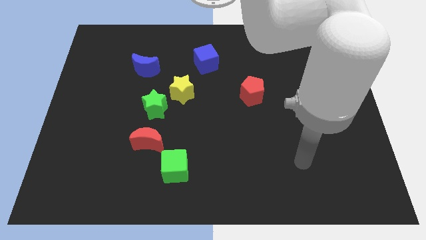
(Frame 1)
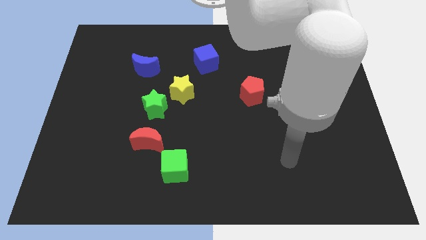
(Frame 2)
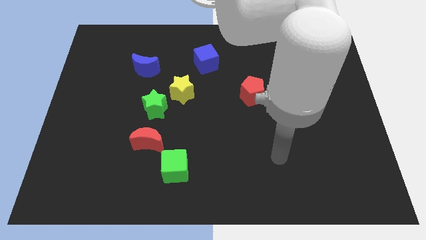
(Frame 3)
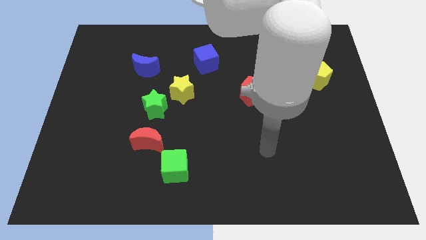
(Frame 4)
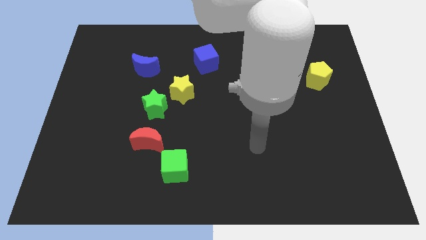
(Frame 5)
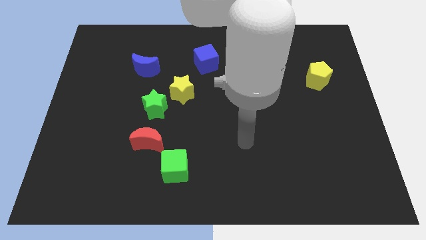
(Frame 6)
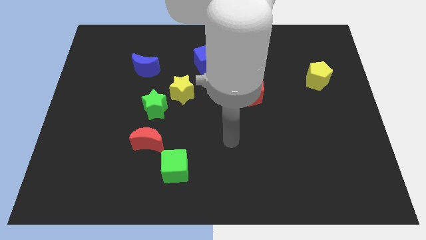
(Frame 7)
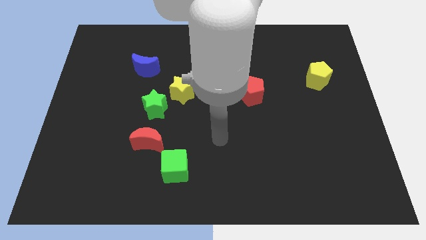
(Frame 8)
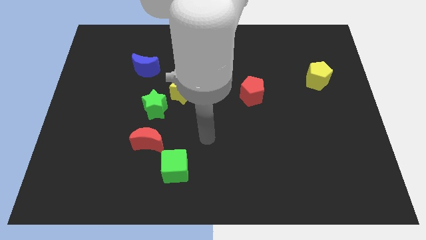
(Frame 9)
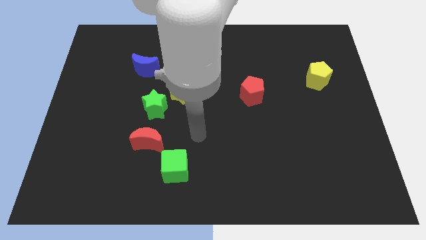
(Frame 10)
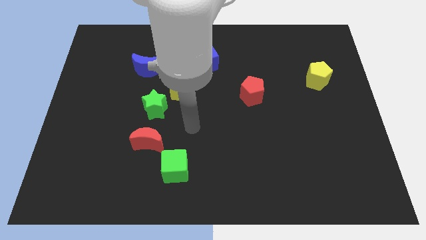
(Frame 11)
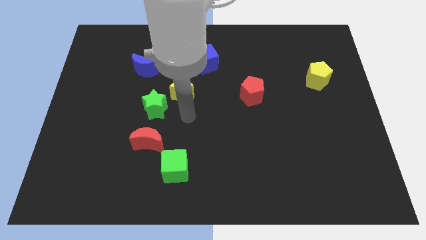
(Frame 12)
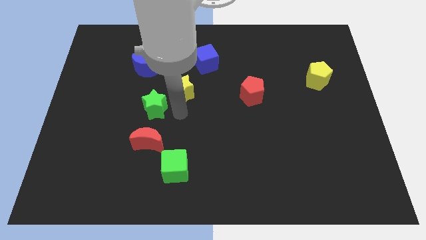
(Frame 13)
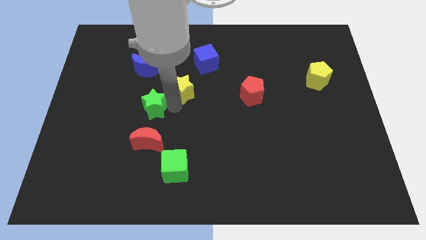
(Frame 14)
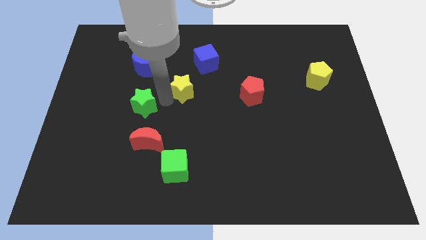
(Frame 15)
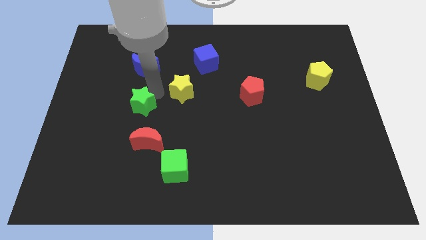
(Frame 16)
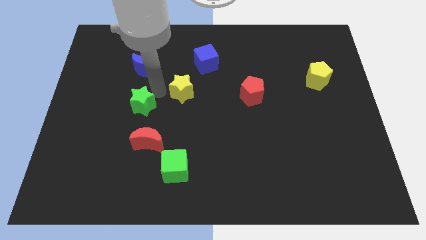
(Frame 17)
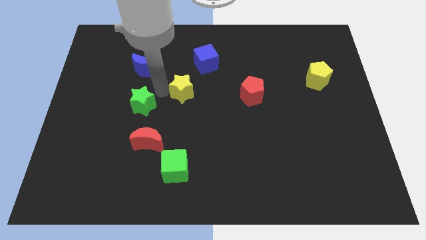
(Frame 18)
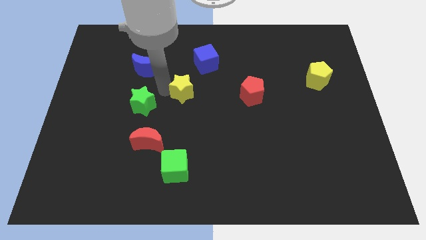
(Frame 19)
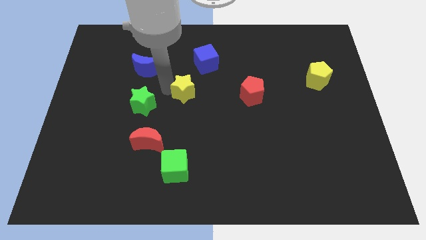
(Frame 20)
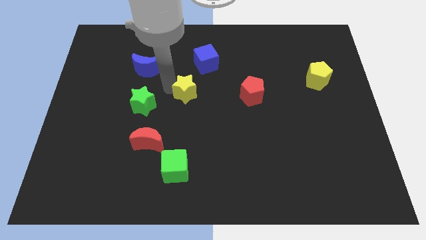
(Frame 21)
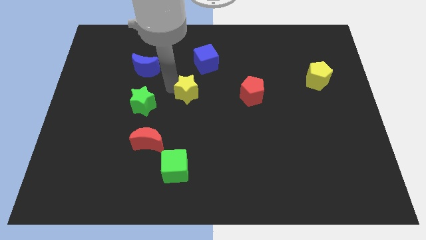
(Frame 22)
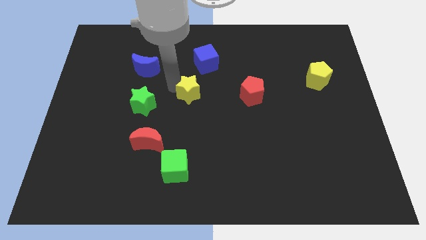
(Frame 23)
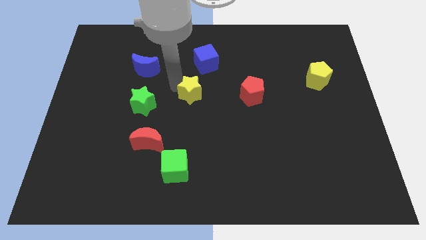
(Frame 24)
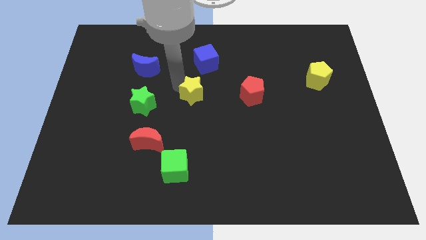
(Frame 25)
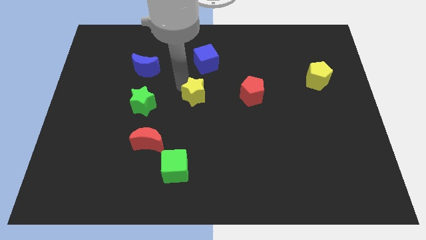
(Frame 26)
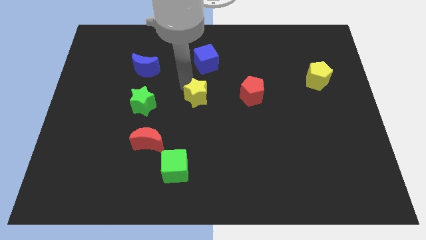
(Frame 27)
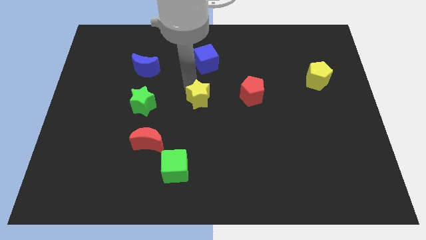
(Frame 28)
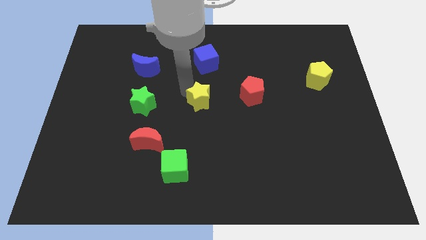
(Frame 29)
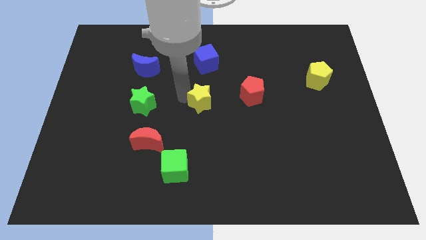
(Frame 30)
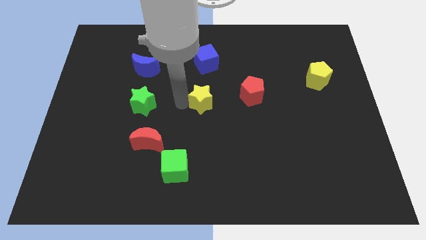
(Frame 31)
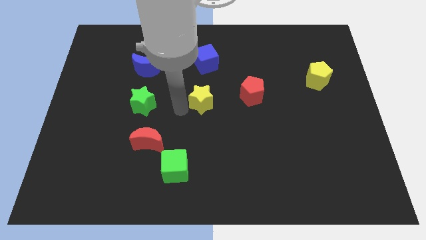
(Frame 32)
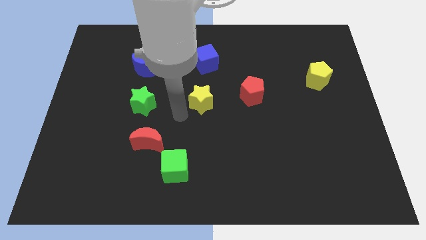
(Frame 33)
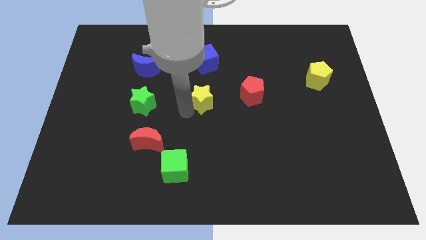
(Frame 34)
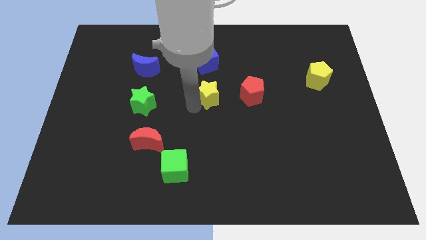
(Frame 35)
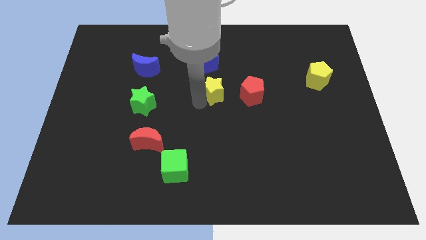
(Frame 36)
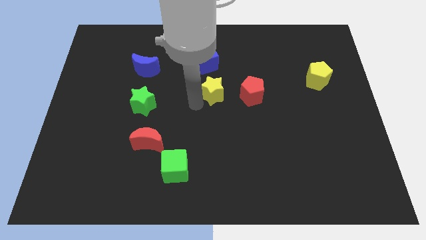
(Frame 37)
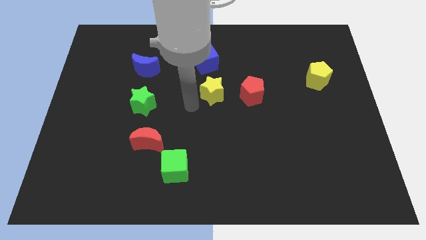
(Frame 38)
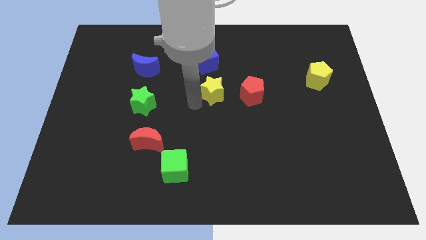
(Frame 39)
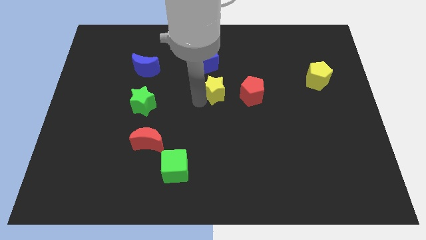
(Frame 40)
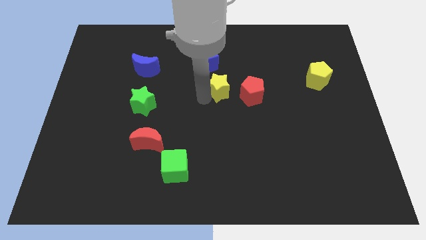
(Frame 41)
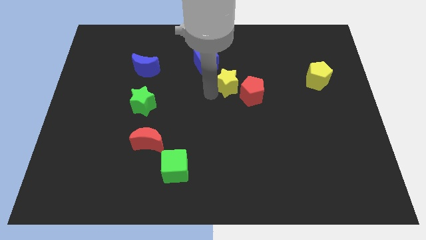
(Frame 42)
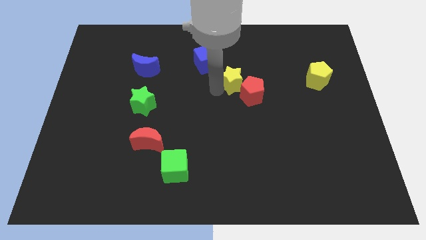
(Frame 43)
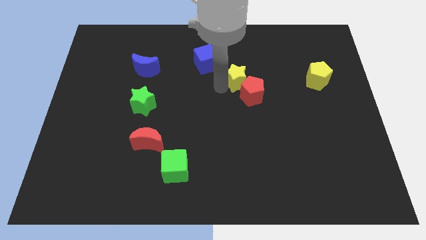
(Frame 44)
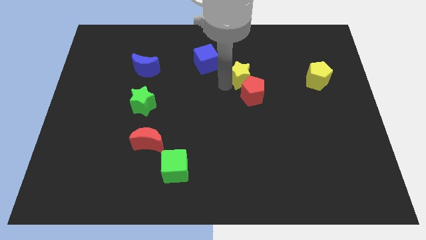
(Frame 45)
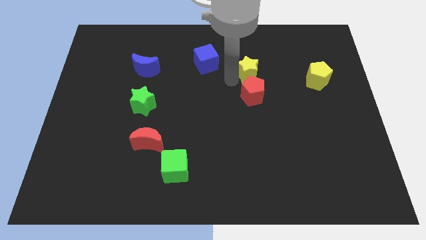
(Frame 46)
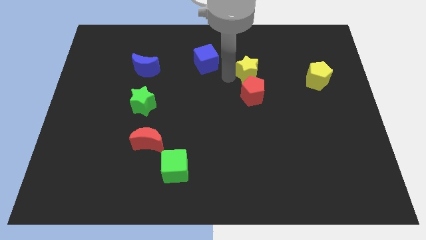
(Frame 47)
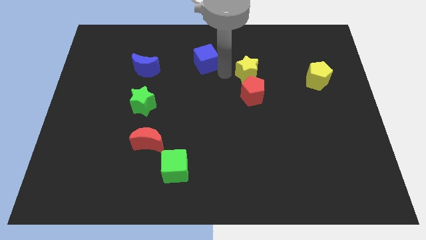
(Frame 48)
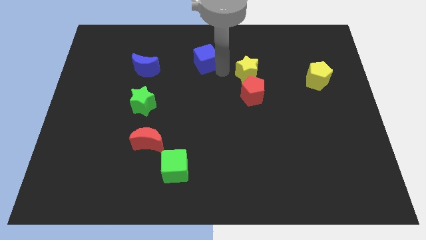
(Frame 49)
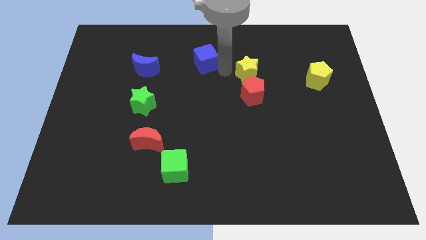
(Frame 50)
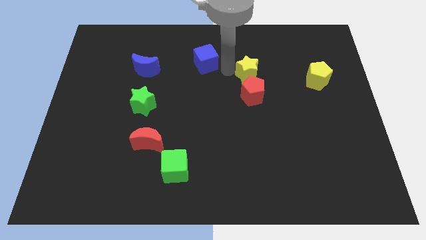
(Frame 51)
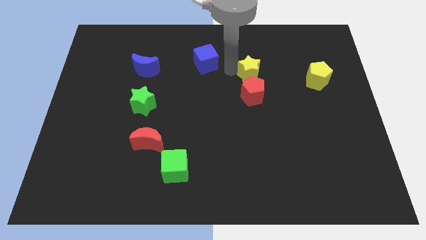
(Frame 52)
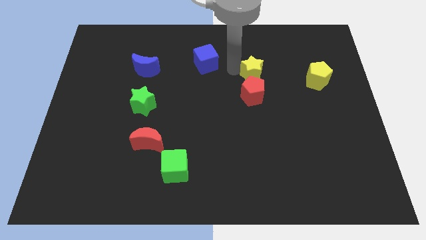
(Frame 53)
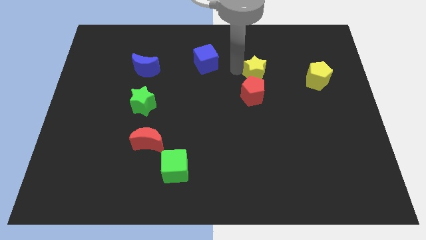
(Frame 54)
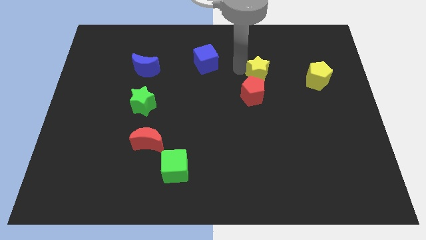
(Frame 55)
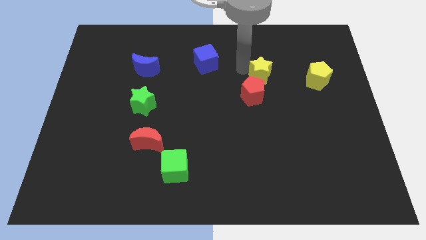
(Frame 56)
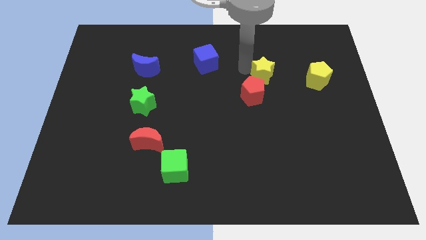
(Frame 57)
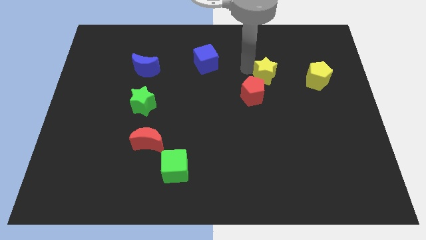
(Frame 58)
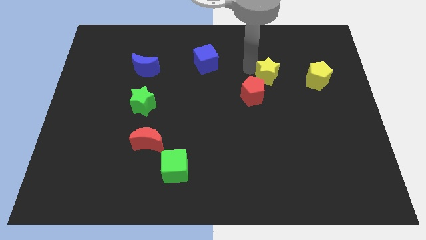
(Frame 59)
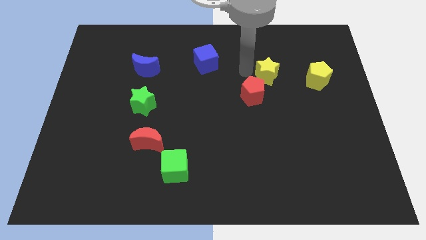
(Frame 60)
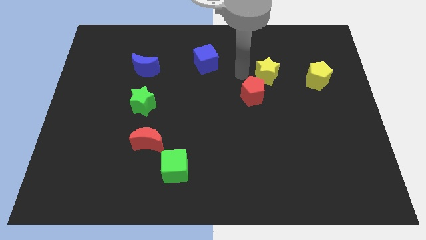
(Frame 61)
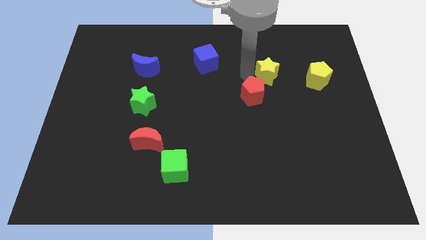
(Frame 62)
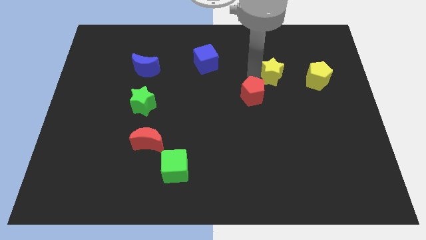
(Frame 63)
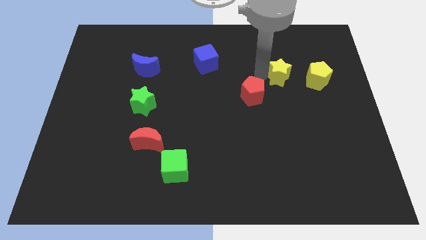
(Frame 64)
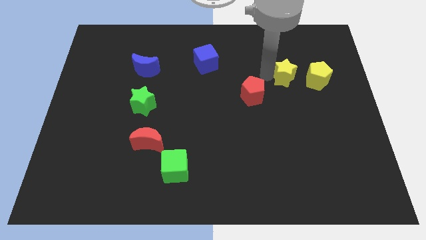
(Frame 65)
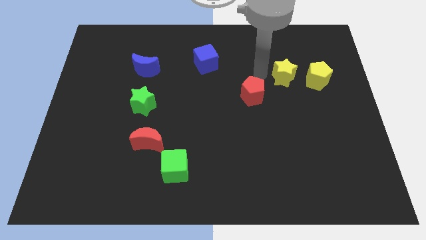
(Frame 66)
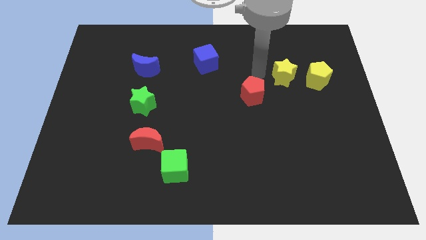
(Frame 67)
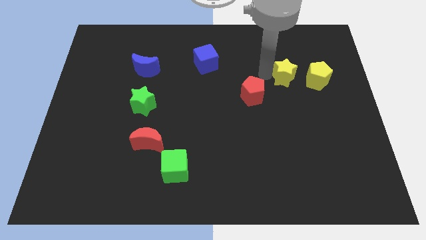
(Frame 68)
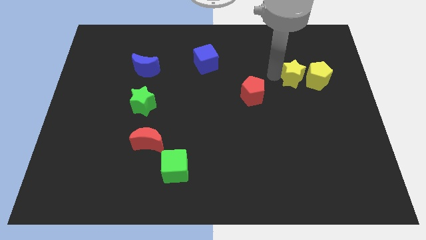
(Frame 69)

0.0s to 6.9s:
move the yellow star towards the yellow pentagon
